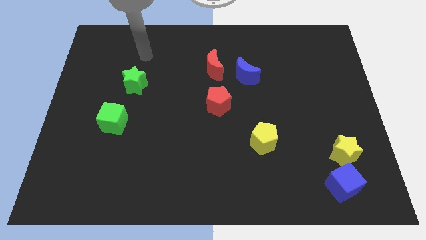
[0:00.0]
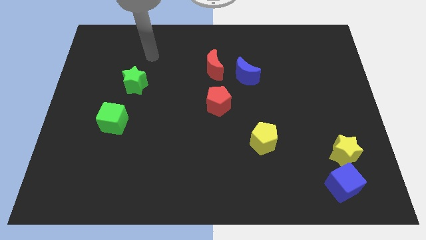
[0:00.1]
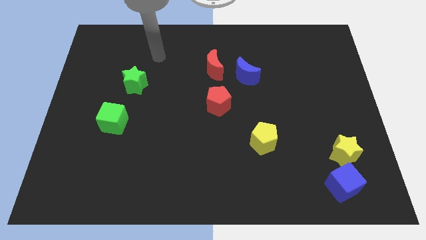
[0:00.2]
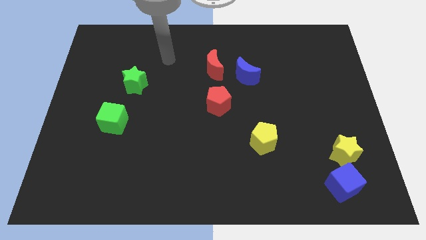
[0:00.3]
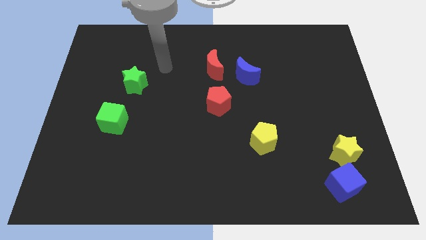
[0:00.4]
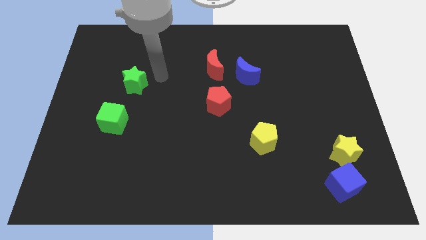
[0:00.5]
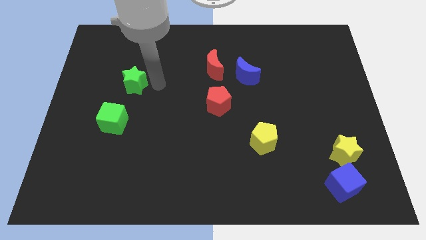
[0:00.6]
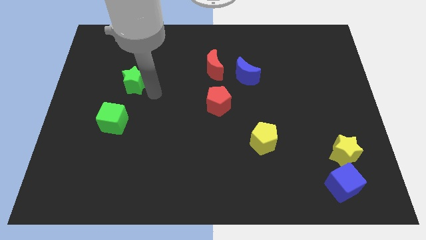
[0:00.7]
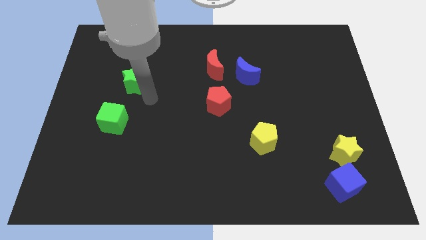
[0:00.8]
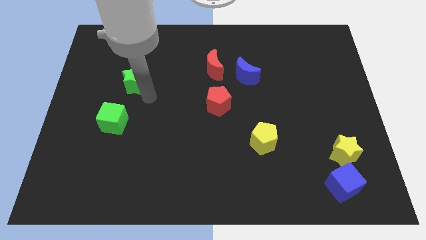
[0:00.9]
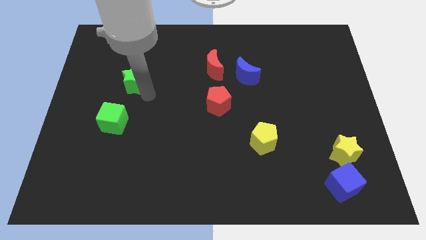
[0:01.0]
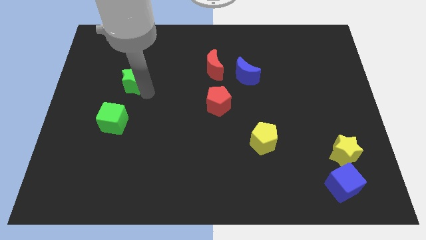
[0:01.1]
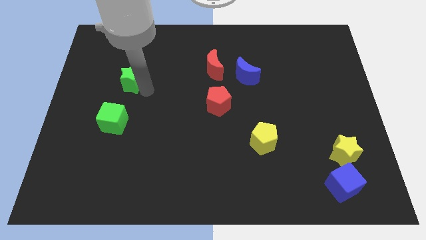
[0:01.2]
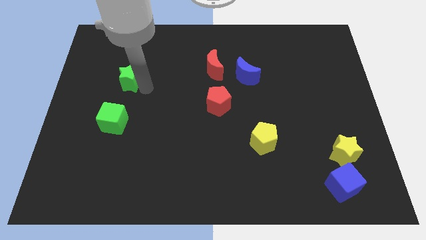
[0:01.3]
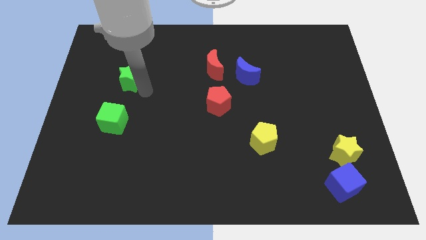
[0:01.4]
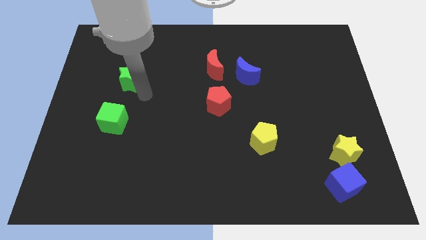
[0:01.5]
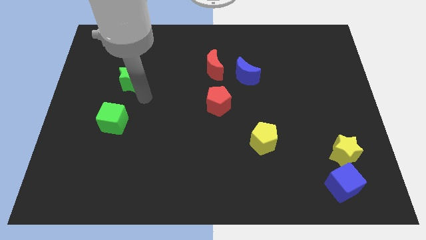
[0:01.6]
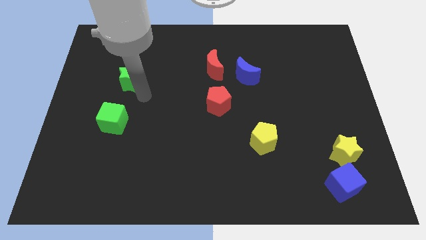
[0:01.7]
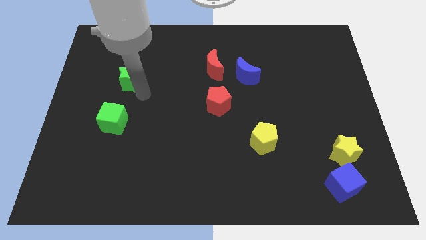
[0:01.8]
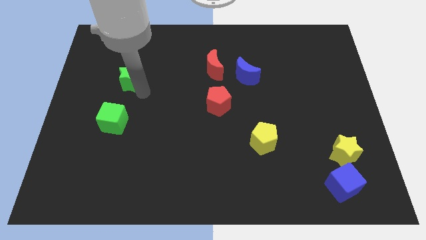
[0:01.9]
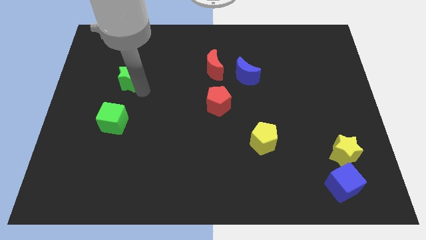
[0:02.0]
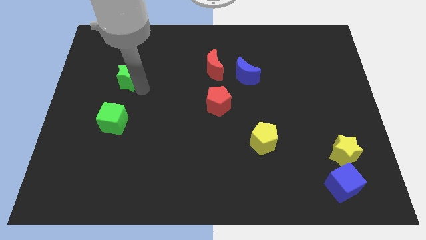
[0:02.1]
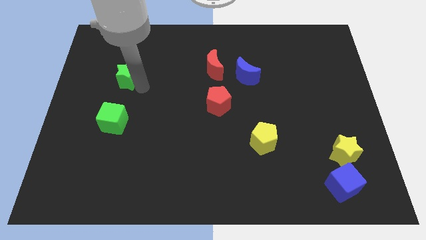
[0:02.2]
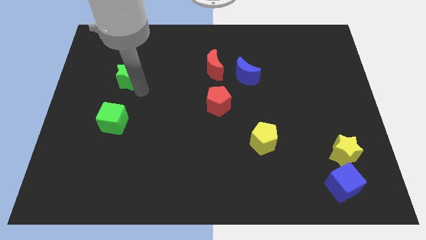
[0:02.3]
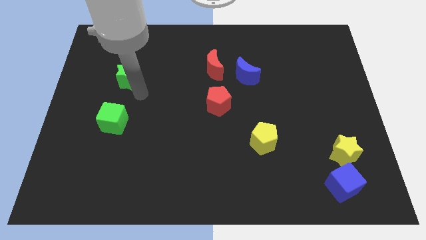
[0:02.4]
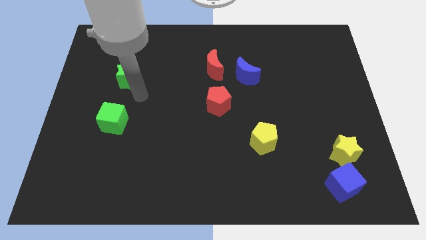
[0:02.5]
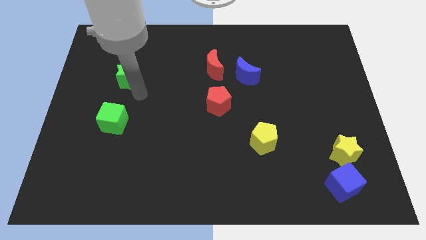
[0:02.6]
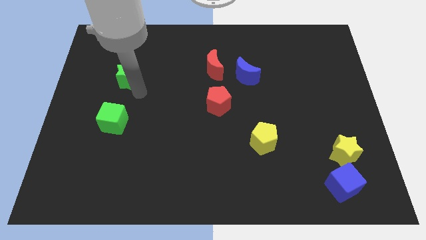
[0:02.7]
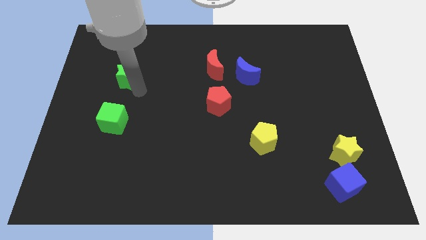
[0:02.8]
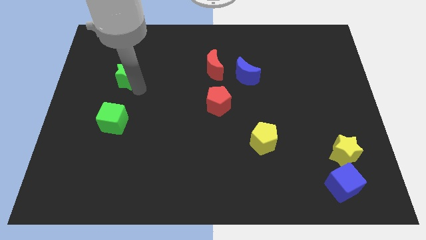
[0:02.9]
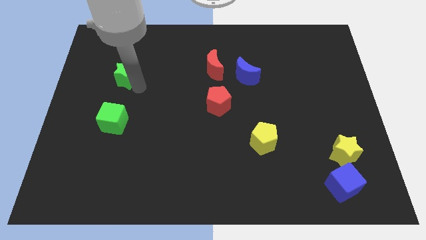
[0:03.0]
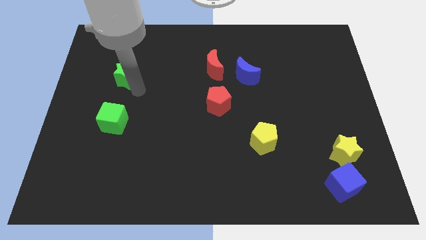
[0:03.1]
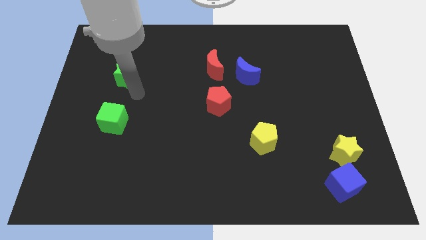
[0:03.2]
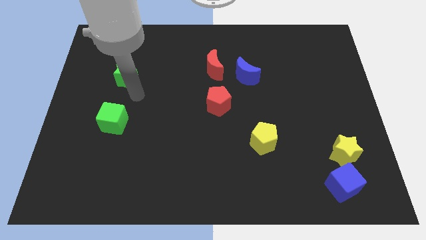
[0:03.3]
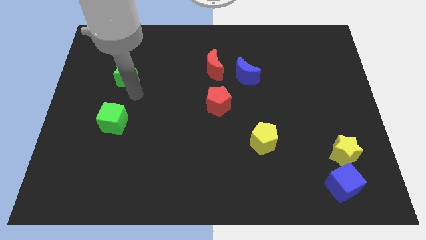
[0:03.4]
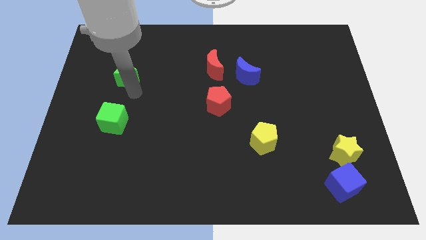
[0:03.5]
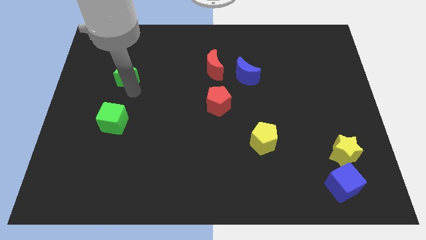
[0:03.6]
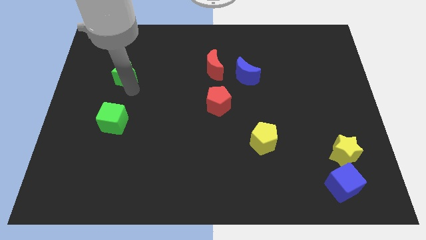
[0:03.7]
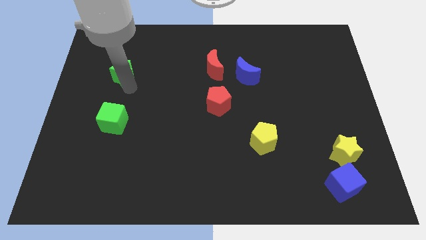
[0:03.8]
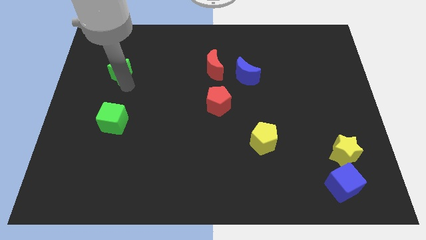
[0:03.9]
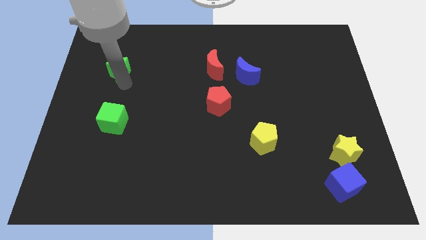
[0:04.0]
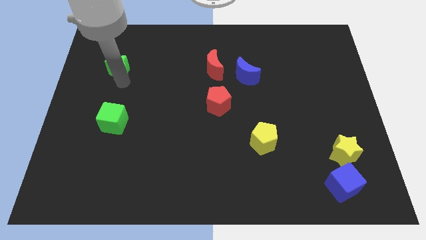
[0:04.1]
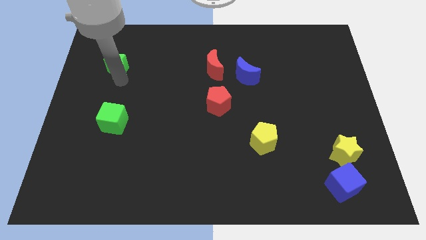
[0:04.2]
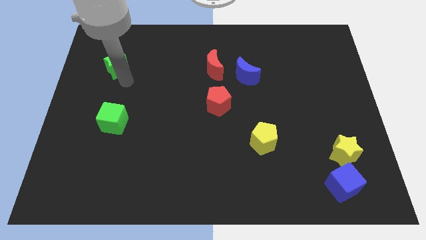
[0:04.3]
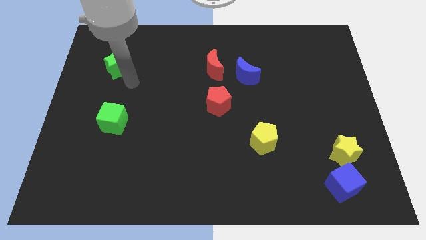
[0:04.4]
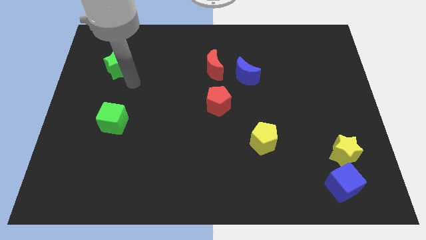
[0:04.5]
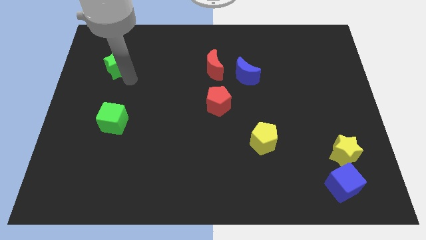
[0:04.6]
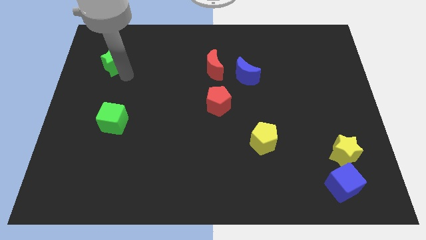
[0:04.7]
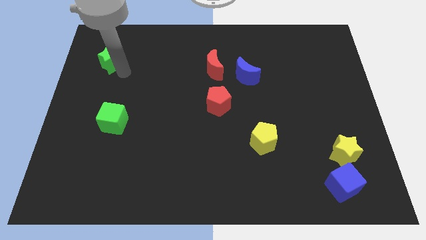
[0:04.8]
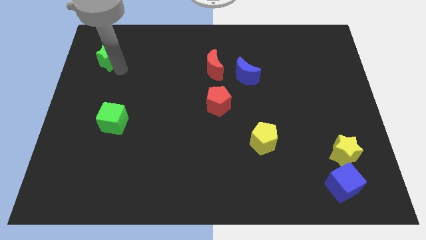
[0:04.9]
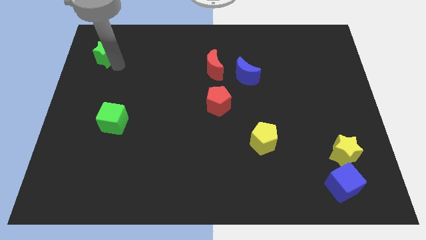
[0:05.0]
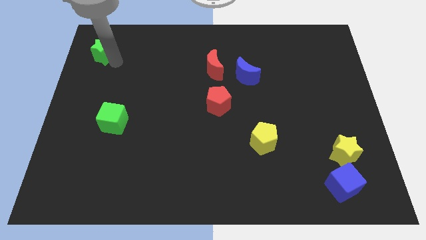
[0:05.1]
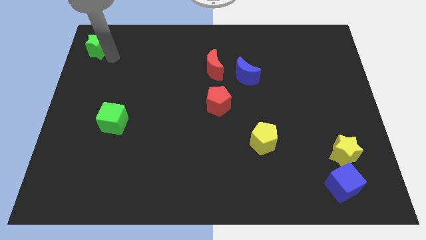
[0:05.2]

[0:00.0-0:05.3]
put the green star to the top left of the board
